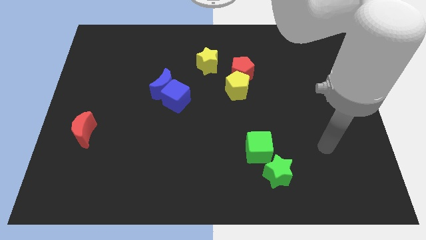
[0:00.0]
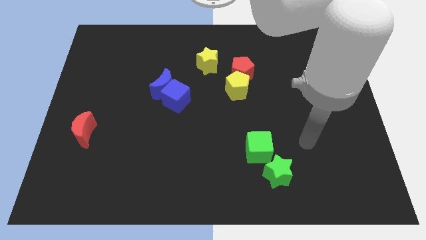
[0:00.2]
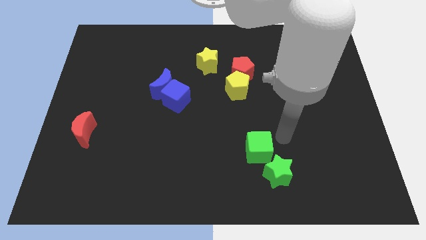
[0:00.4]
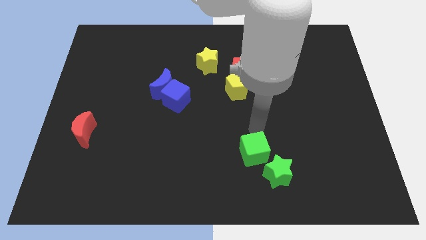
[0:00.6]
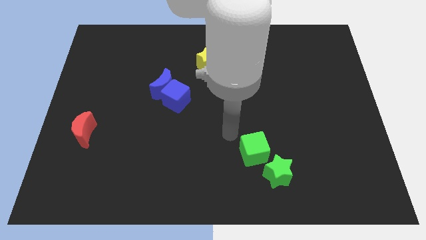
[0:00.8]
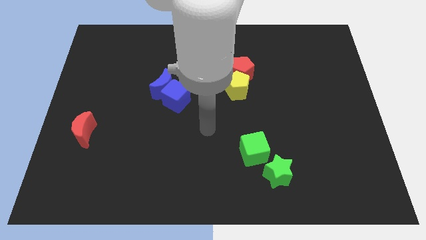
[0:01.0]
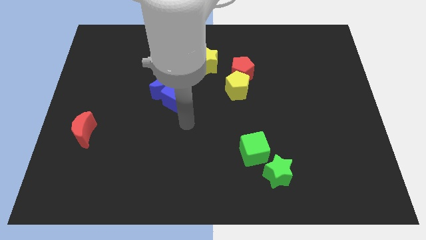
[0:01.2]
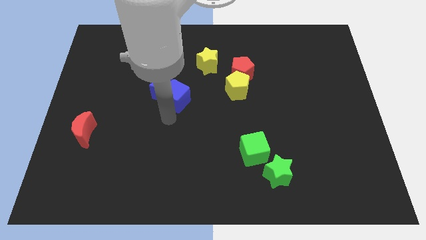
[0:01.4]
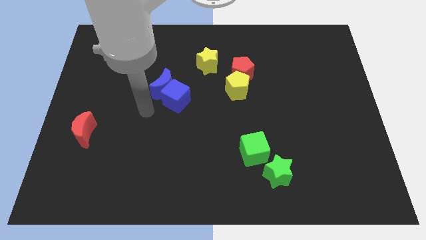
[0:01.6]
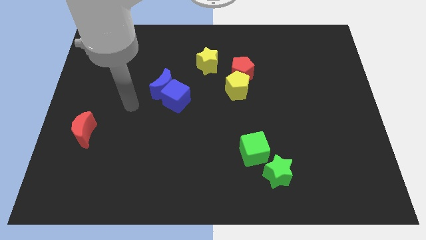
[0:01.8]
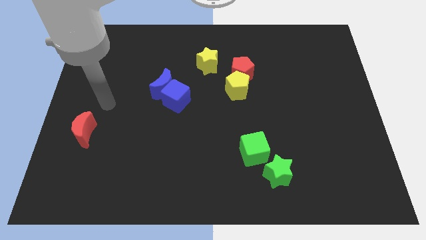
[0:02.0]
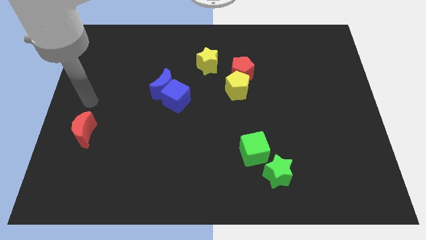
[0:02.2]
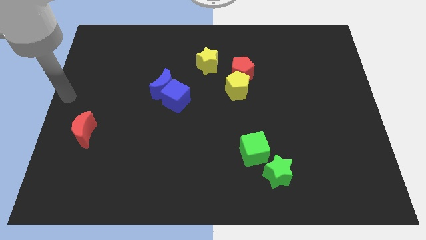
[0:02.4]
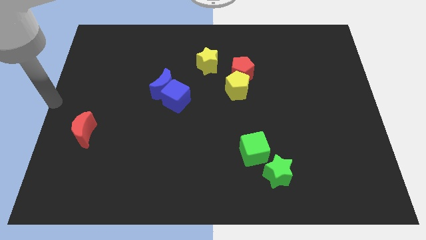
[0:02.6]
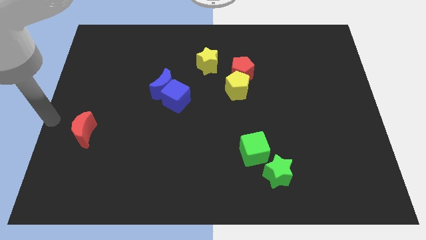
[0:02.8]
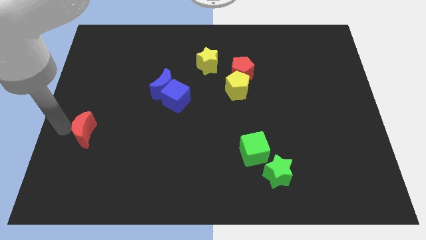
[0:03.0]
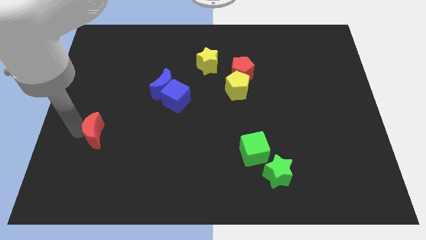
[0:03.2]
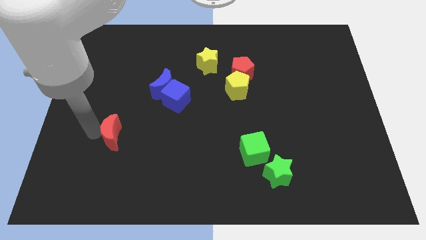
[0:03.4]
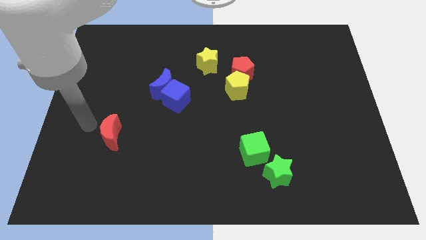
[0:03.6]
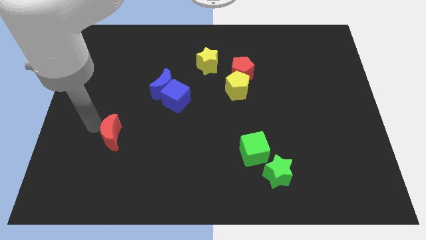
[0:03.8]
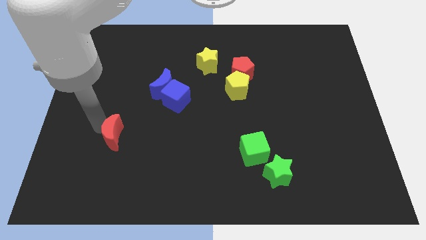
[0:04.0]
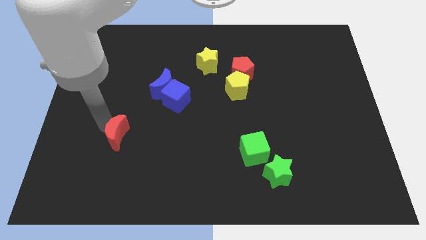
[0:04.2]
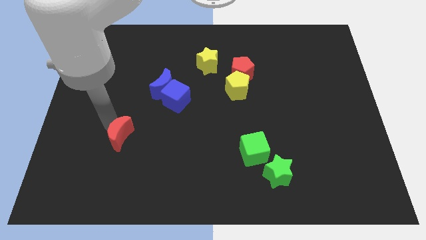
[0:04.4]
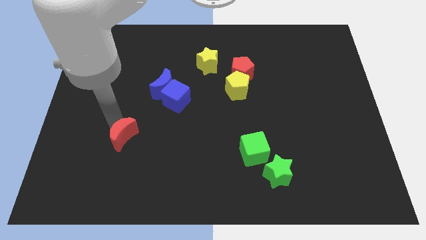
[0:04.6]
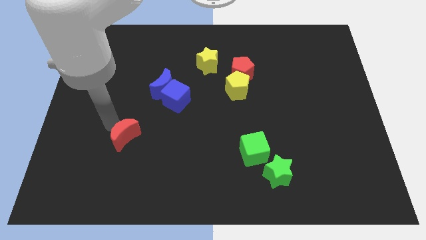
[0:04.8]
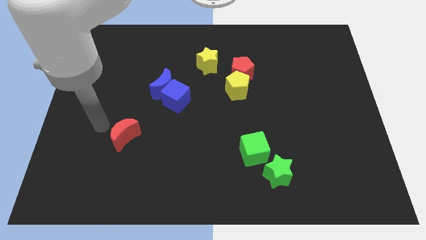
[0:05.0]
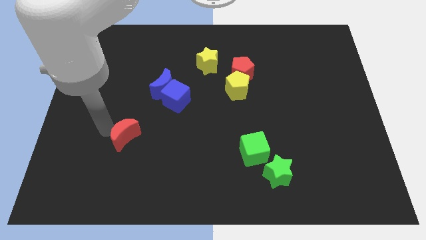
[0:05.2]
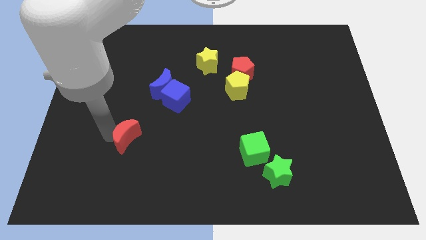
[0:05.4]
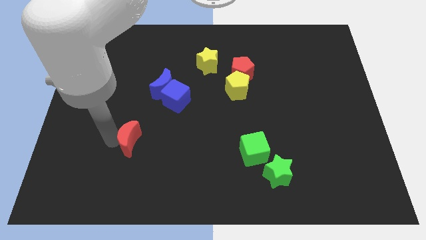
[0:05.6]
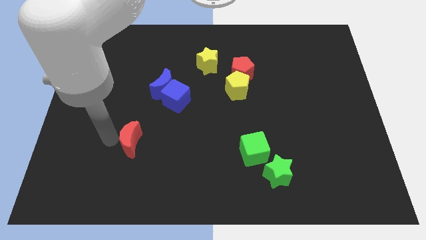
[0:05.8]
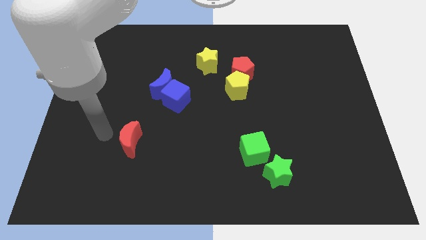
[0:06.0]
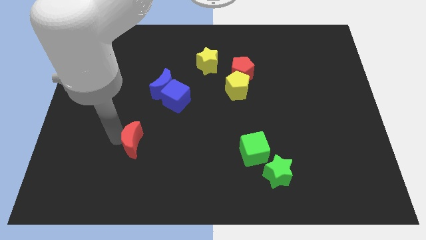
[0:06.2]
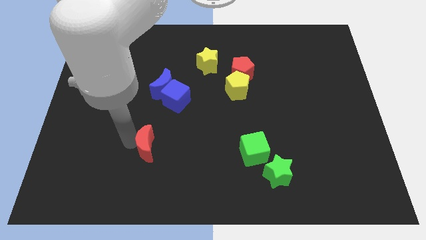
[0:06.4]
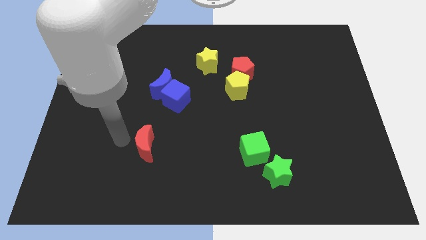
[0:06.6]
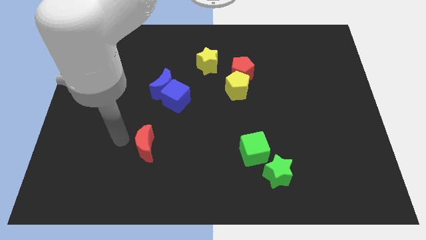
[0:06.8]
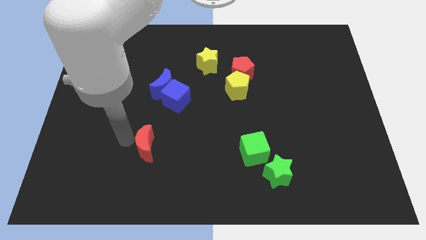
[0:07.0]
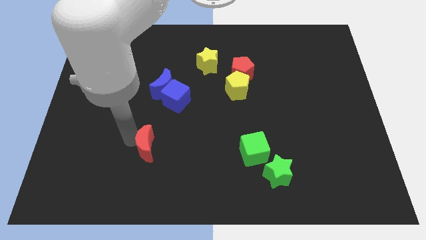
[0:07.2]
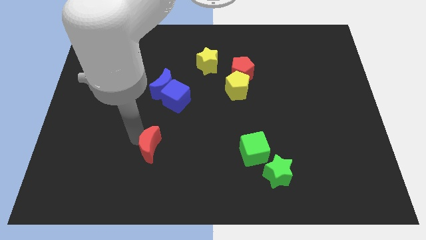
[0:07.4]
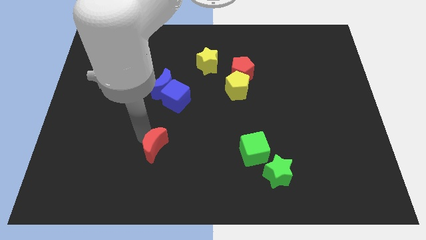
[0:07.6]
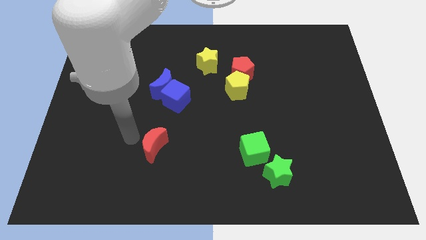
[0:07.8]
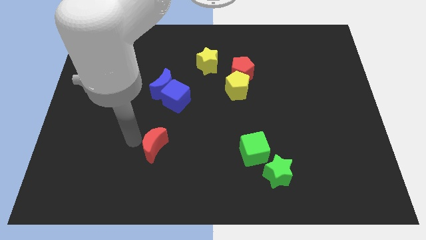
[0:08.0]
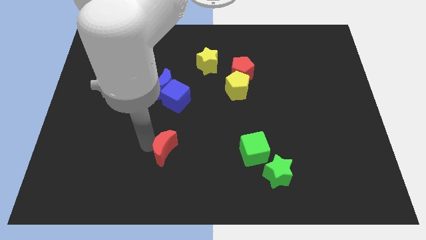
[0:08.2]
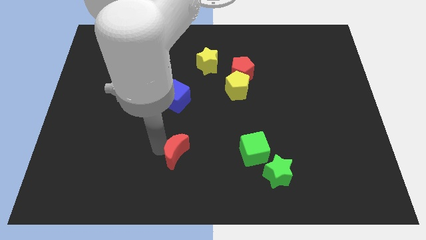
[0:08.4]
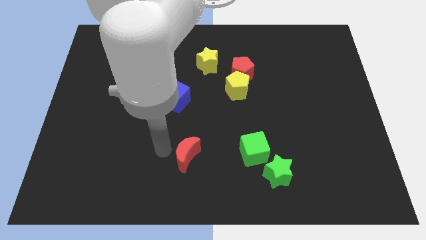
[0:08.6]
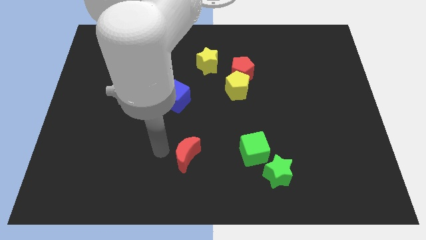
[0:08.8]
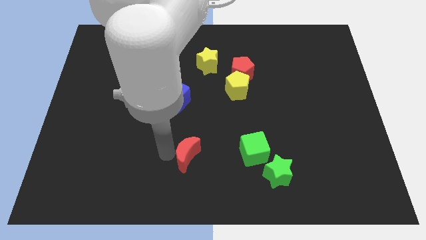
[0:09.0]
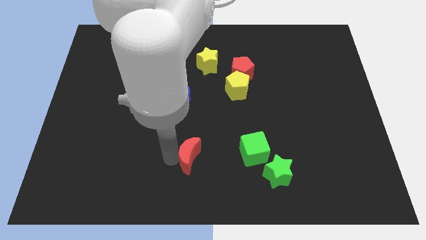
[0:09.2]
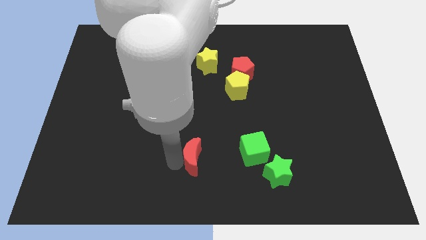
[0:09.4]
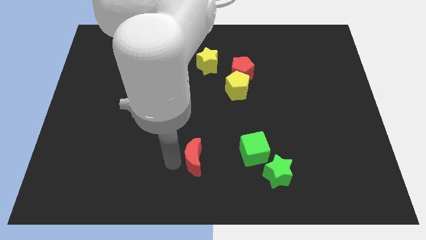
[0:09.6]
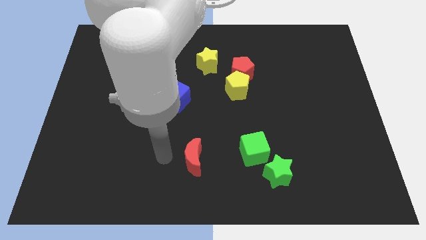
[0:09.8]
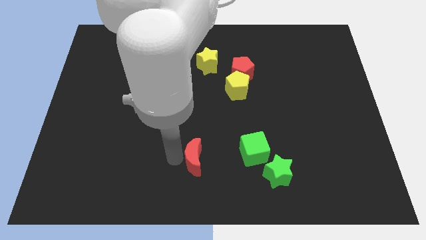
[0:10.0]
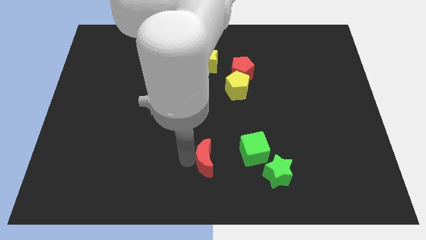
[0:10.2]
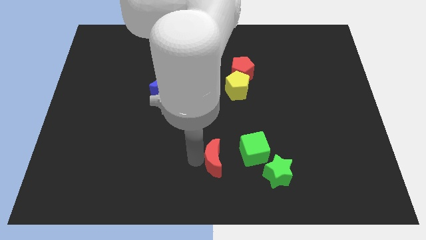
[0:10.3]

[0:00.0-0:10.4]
move the red moon to the bottom left side of the green cube
